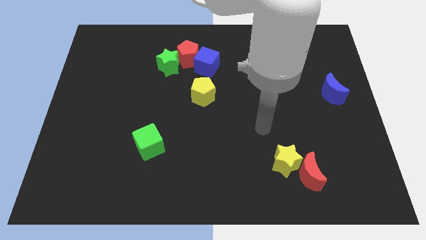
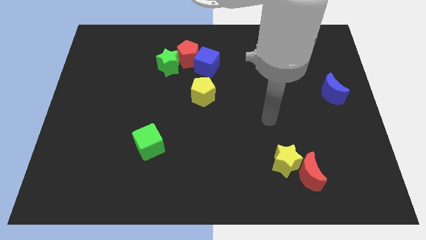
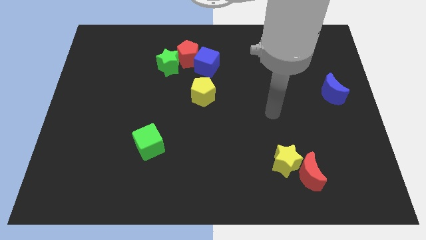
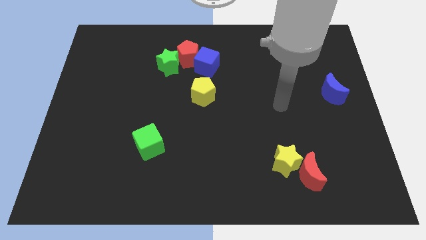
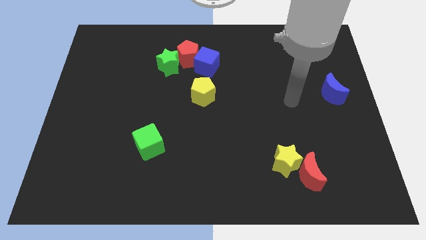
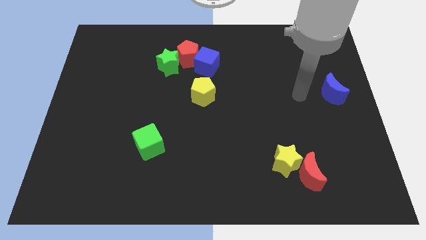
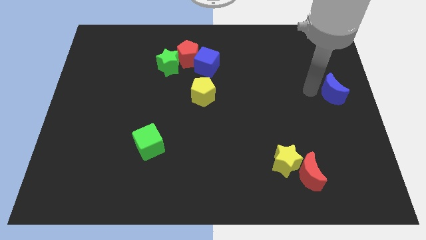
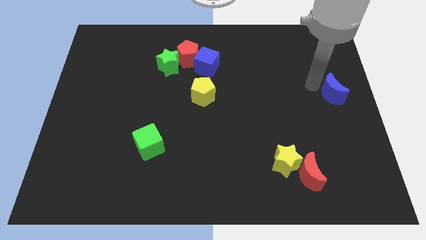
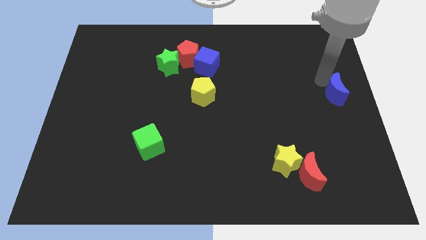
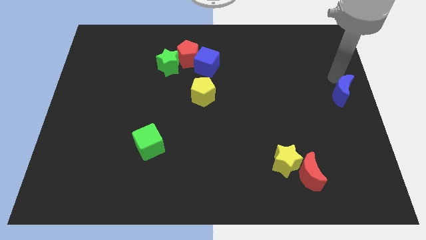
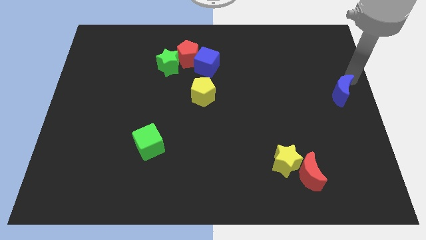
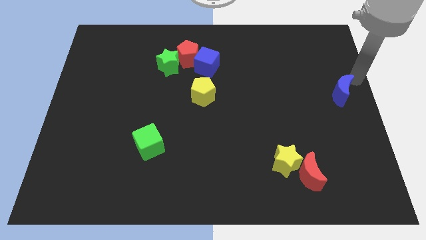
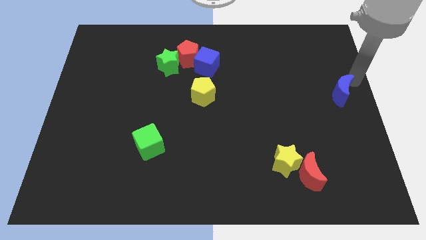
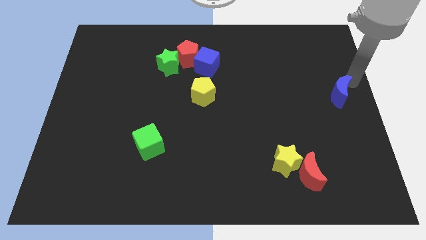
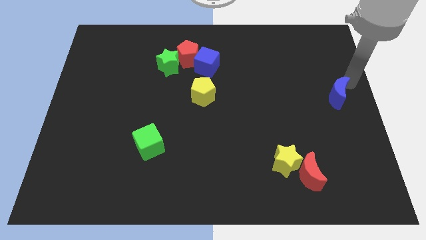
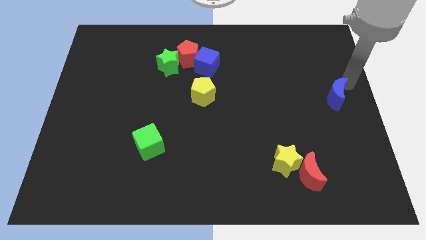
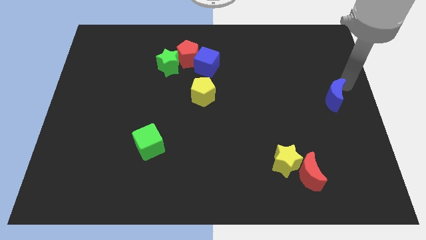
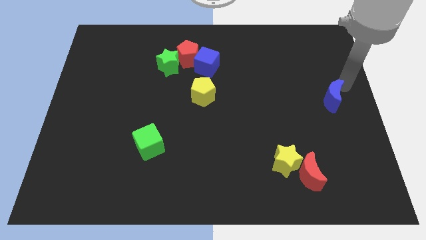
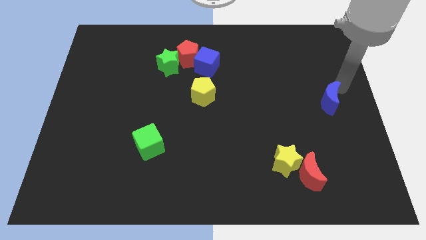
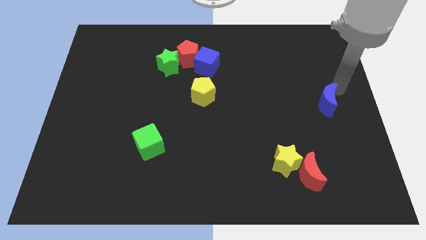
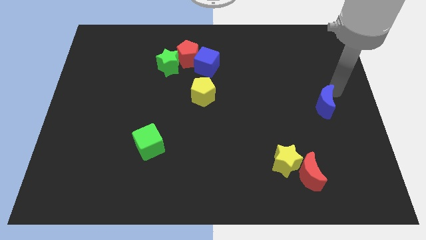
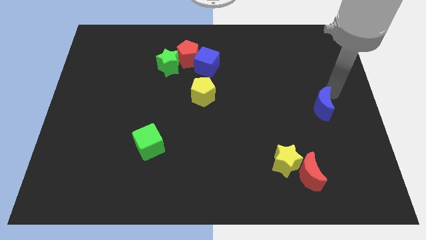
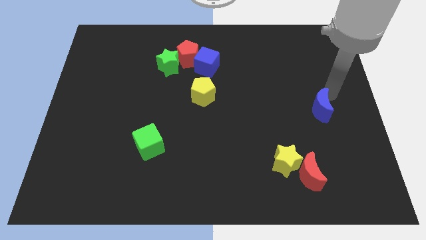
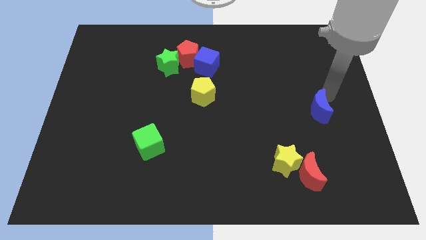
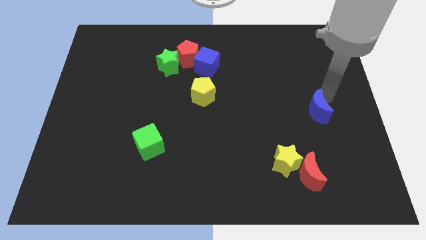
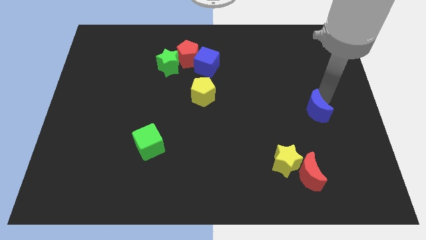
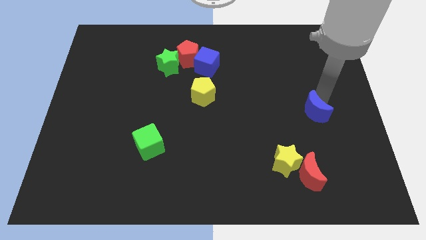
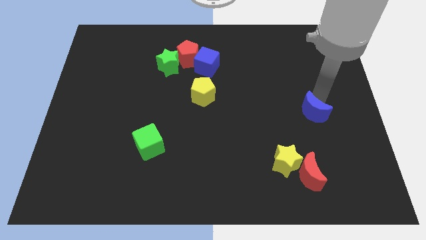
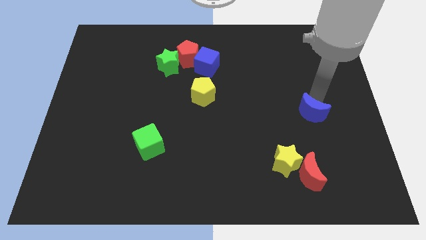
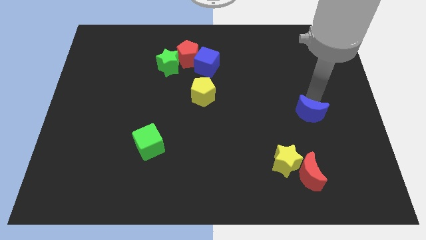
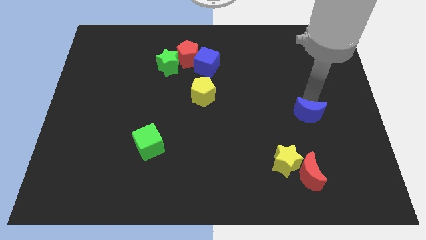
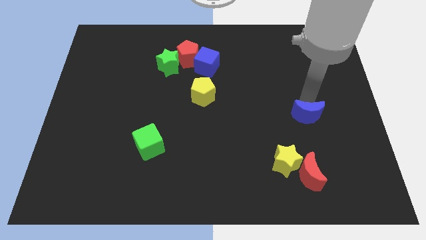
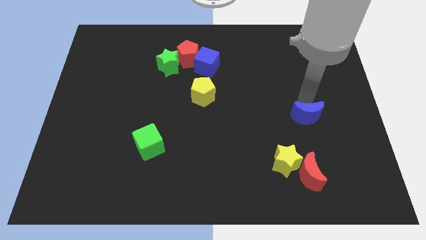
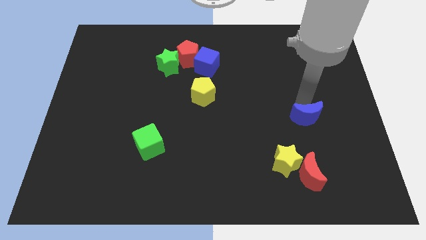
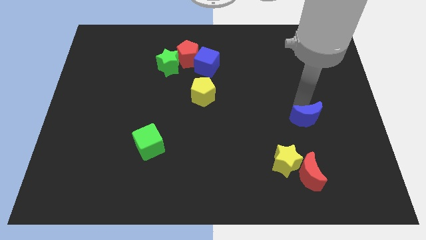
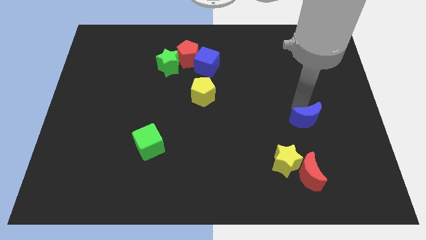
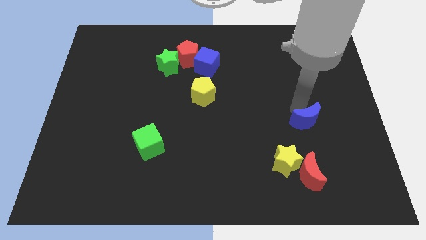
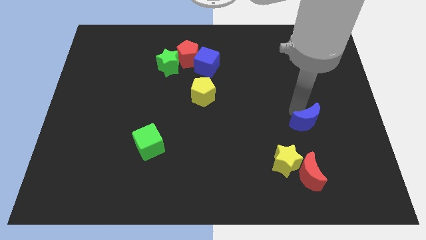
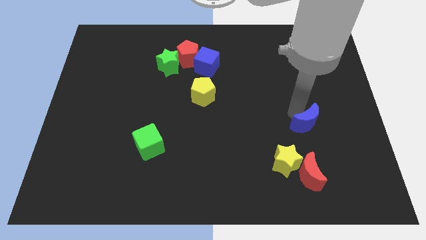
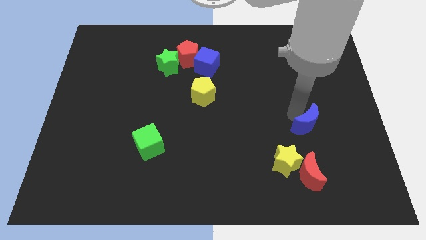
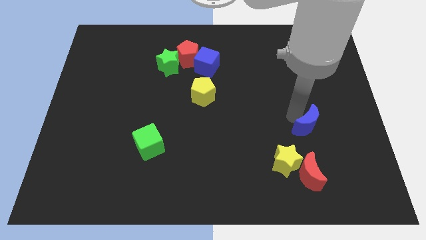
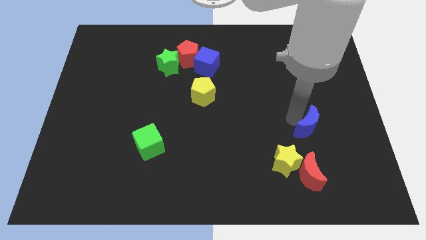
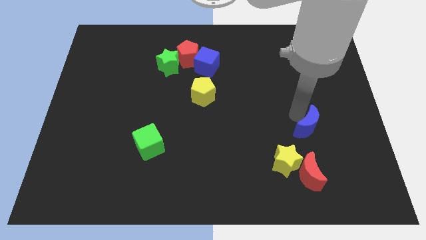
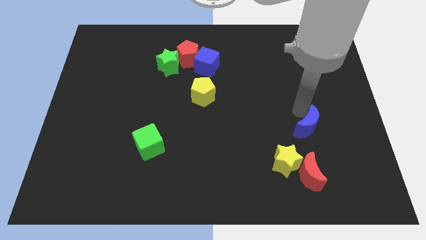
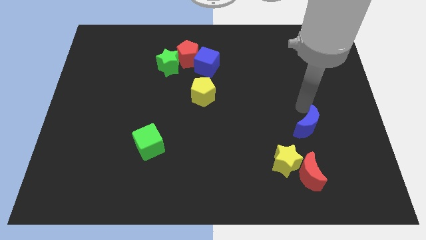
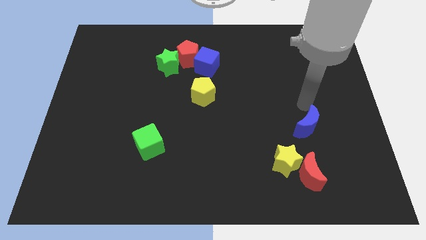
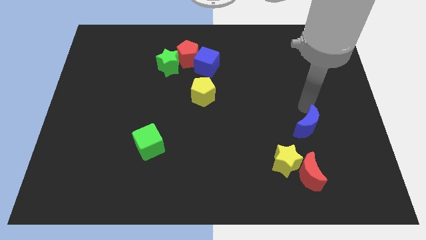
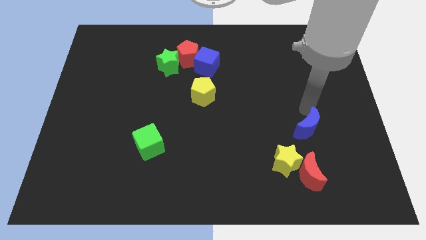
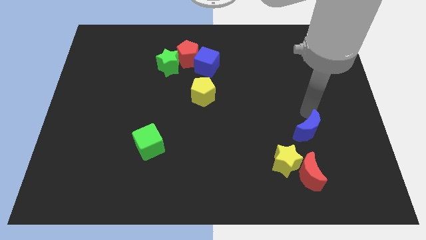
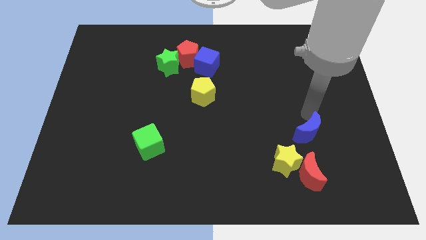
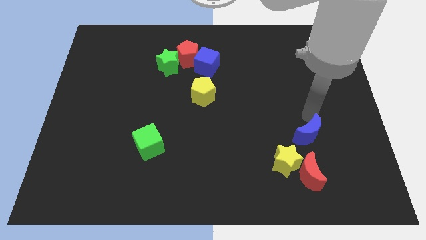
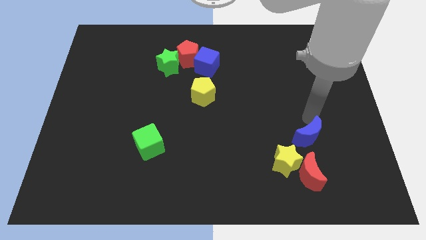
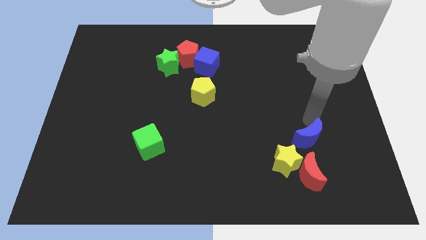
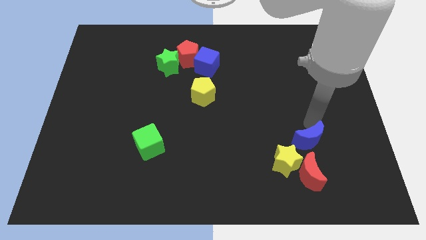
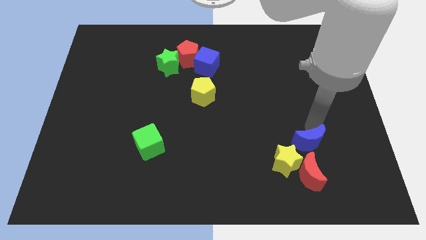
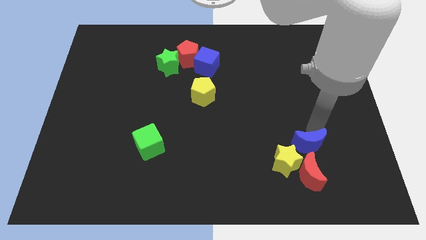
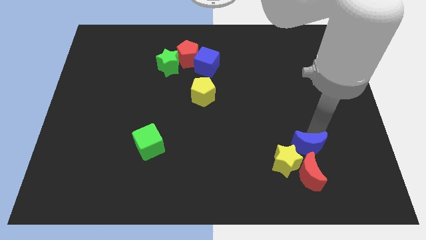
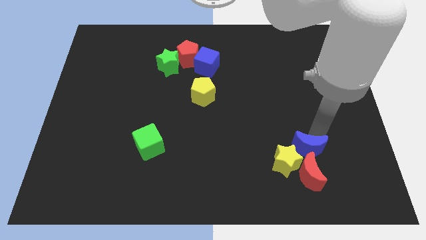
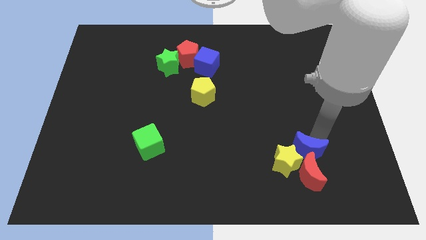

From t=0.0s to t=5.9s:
slide the blue moon next to the red moon
